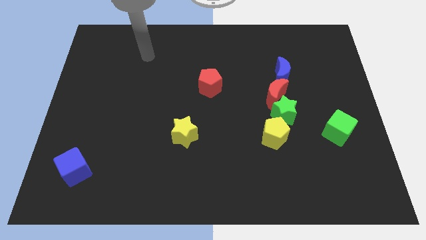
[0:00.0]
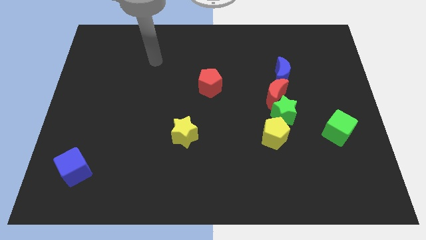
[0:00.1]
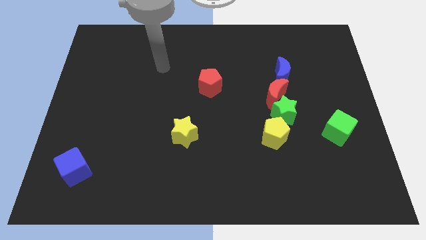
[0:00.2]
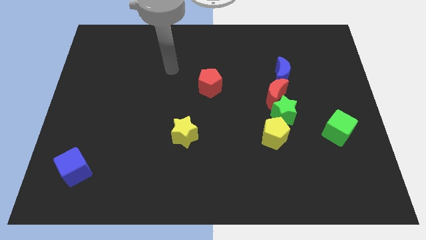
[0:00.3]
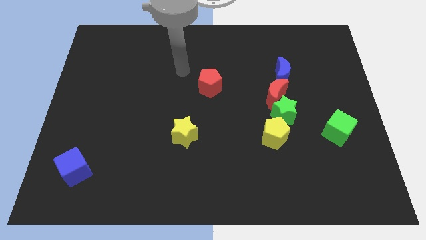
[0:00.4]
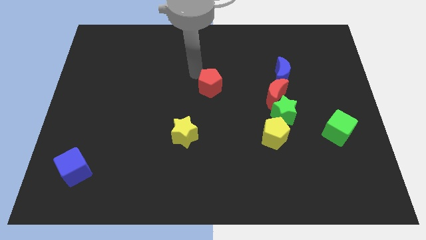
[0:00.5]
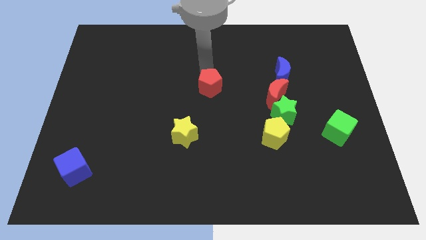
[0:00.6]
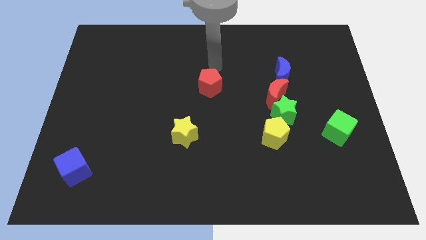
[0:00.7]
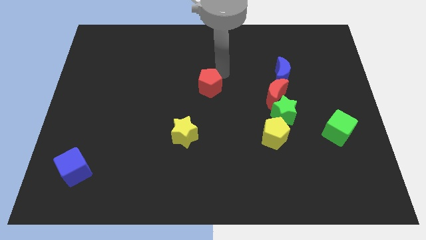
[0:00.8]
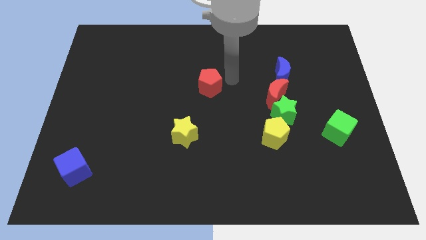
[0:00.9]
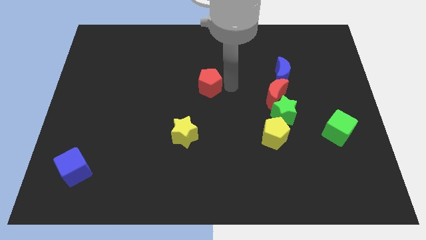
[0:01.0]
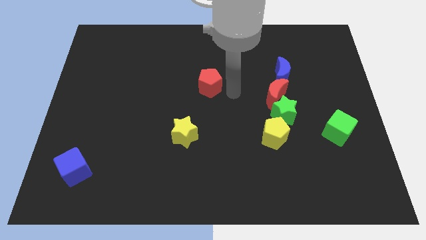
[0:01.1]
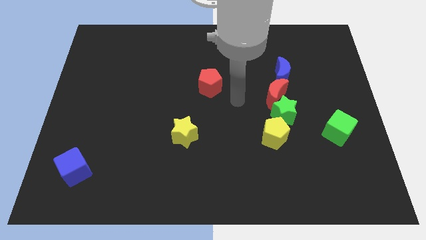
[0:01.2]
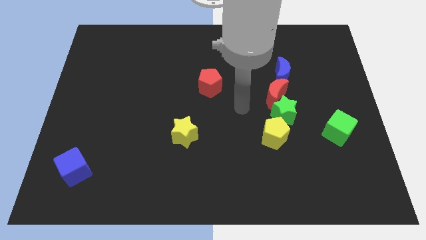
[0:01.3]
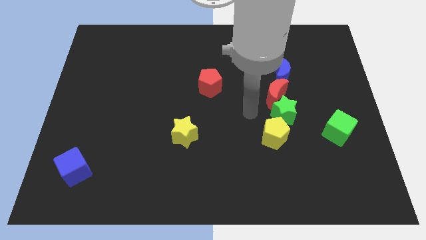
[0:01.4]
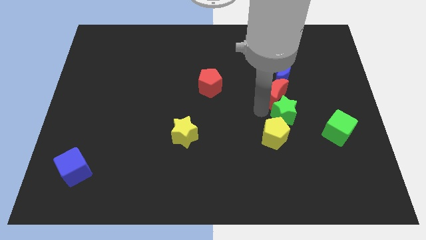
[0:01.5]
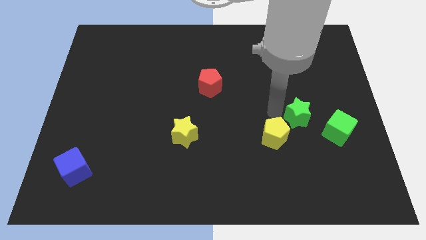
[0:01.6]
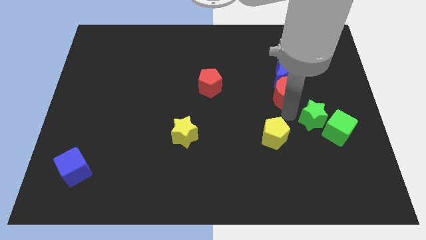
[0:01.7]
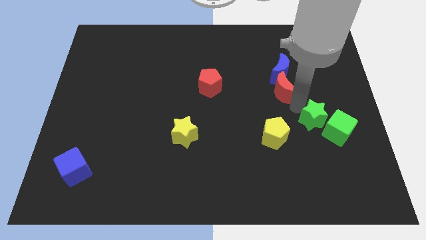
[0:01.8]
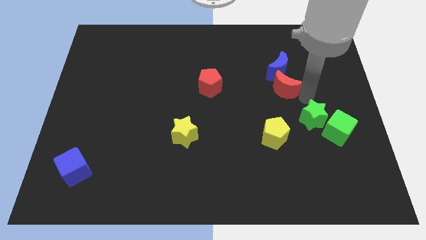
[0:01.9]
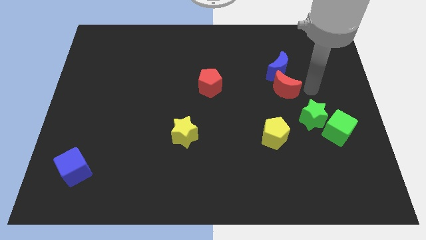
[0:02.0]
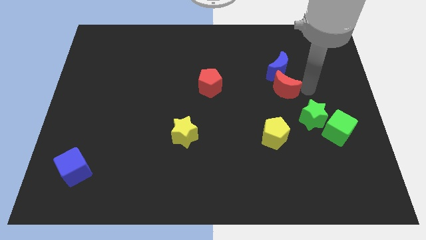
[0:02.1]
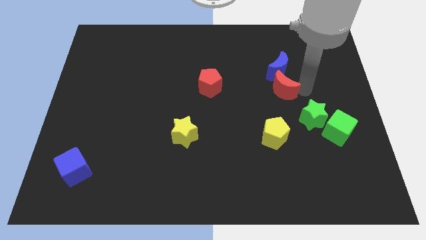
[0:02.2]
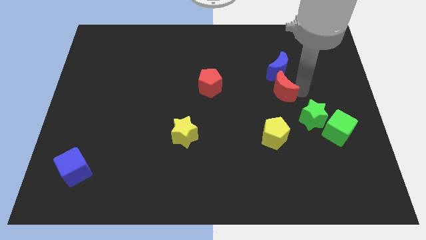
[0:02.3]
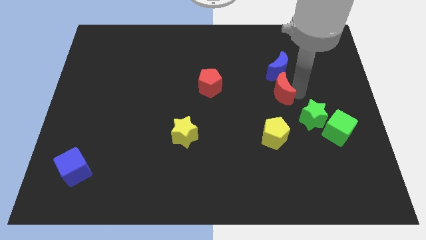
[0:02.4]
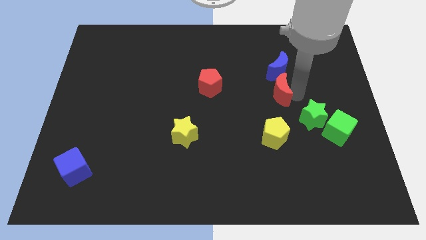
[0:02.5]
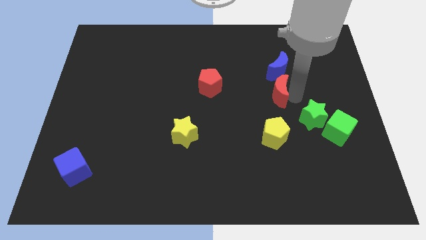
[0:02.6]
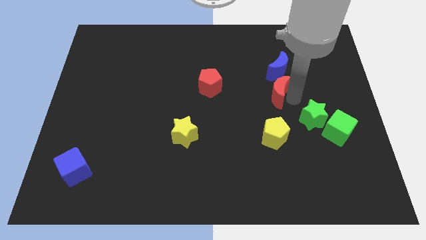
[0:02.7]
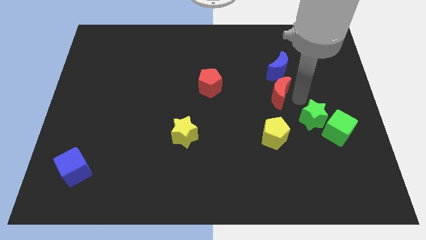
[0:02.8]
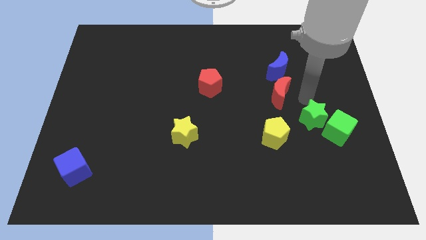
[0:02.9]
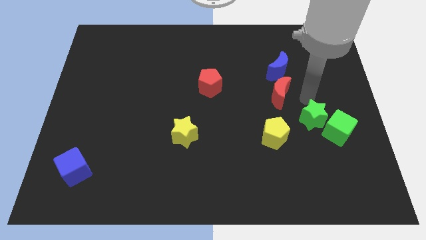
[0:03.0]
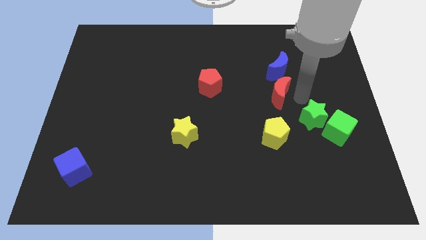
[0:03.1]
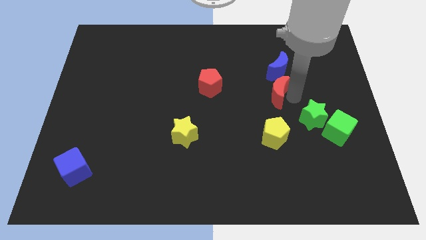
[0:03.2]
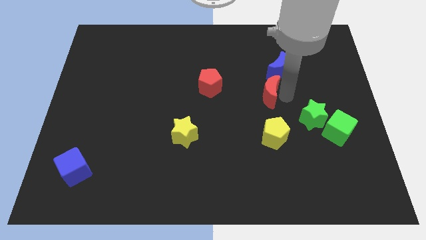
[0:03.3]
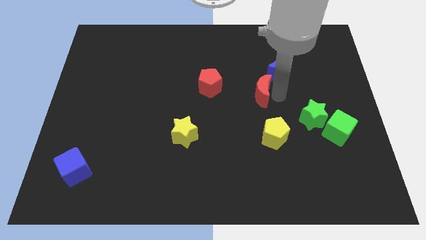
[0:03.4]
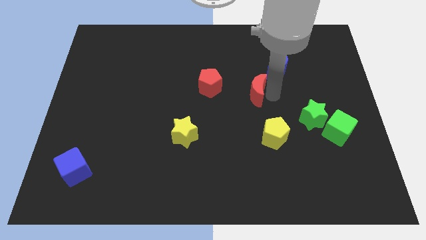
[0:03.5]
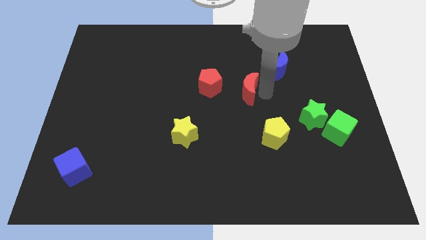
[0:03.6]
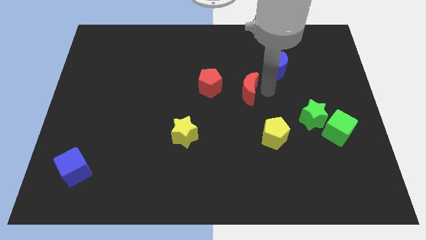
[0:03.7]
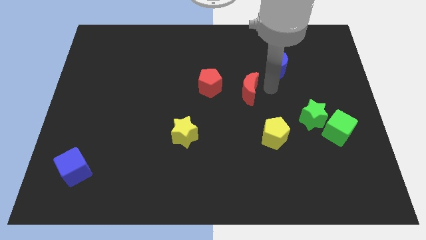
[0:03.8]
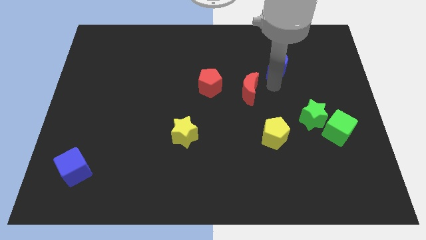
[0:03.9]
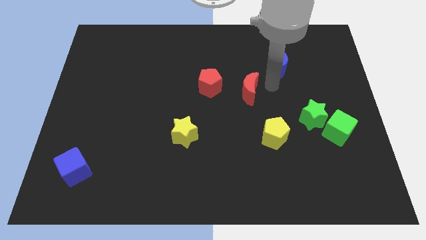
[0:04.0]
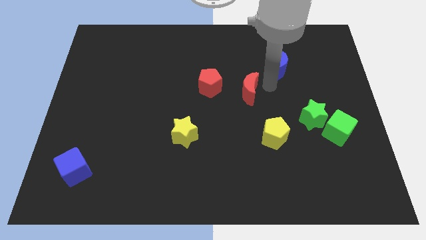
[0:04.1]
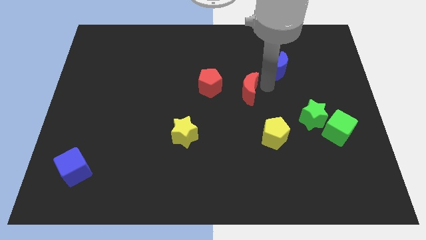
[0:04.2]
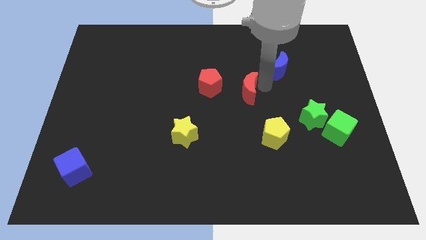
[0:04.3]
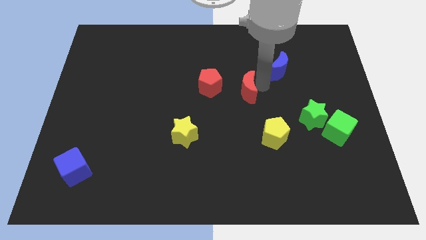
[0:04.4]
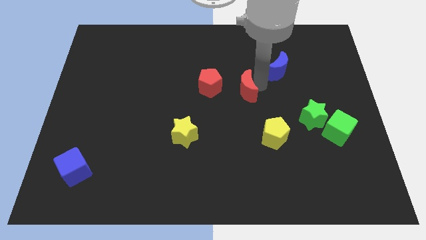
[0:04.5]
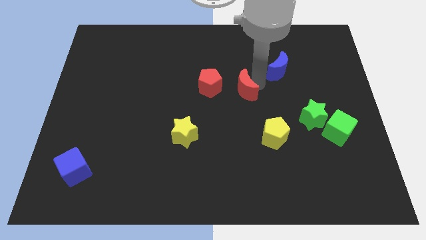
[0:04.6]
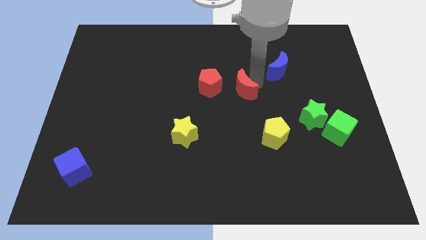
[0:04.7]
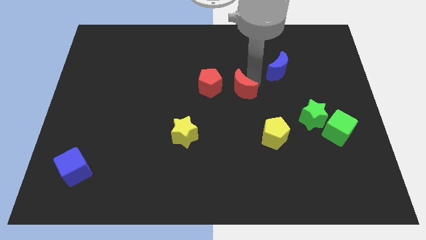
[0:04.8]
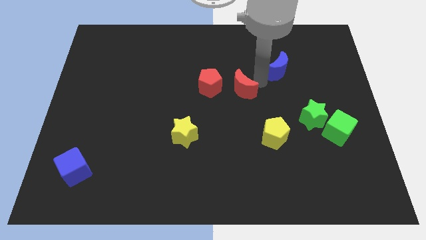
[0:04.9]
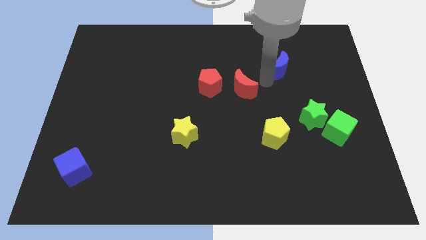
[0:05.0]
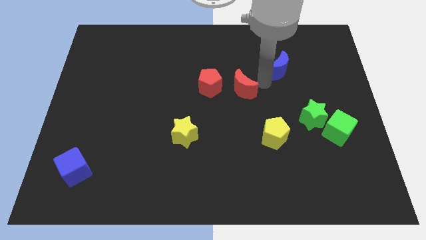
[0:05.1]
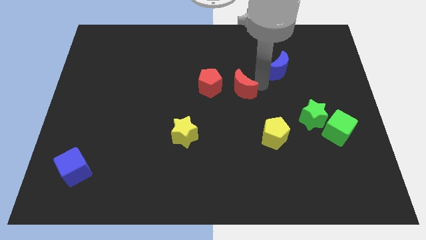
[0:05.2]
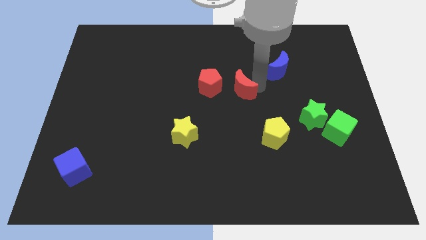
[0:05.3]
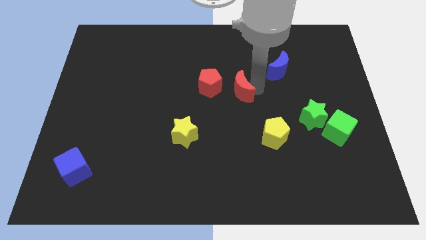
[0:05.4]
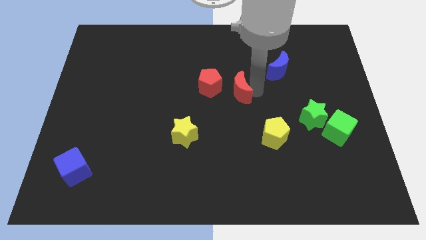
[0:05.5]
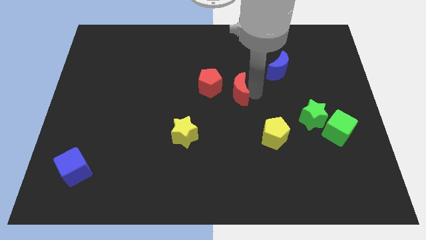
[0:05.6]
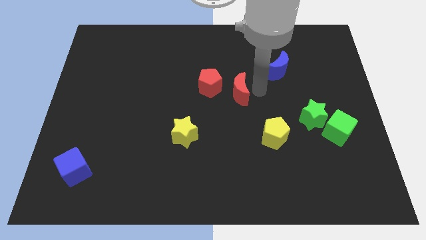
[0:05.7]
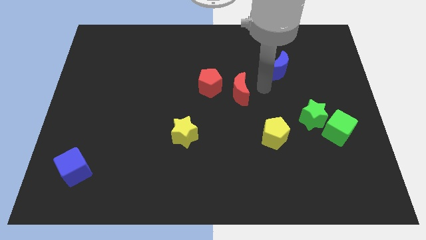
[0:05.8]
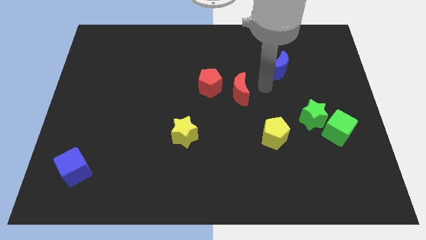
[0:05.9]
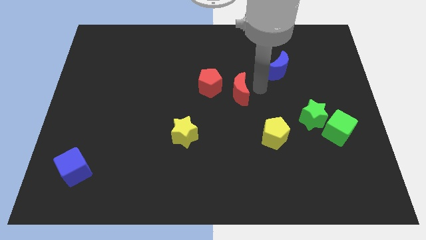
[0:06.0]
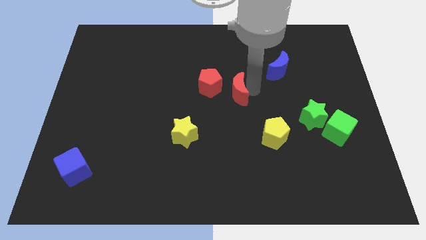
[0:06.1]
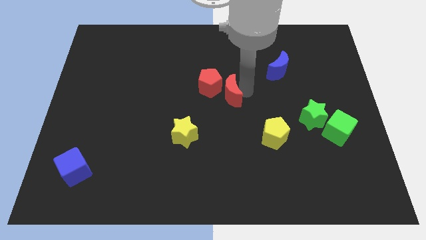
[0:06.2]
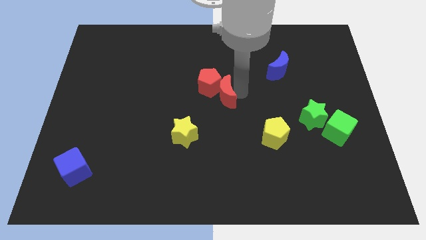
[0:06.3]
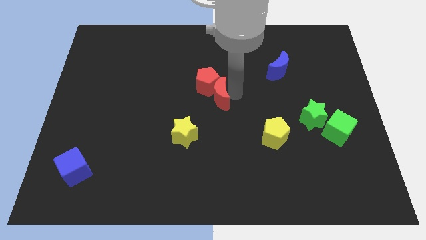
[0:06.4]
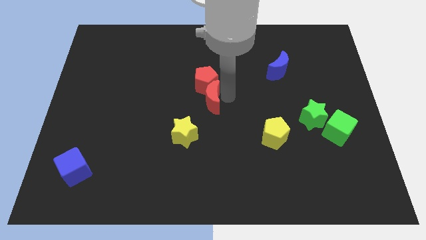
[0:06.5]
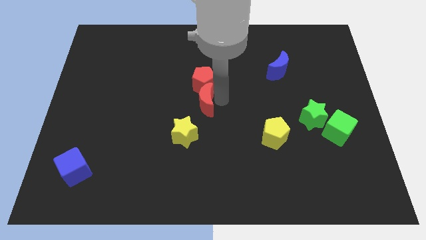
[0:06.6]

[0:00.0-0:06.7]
put the red moon to the top side of the yellow star

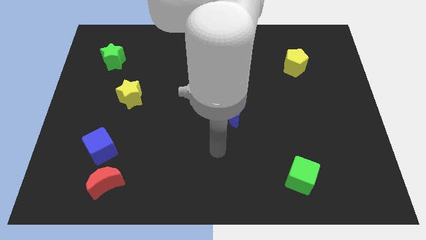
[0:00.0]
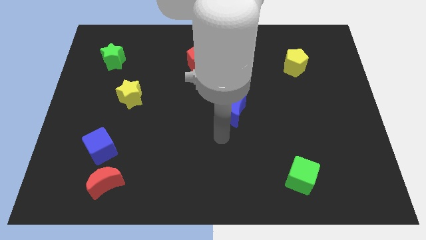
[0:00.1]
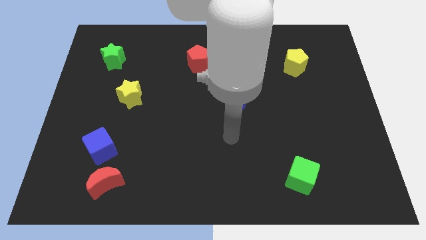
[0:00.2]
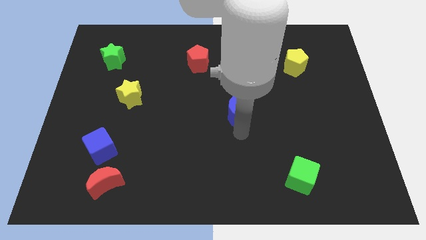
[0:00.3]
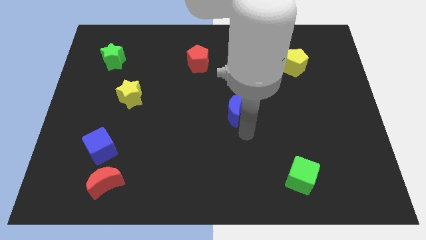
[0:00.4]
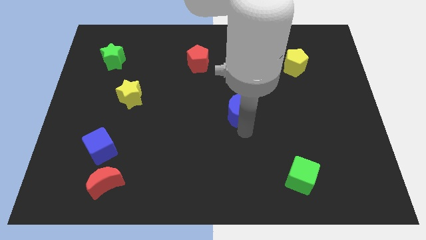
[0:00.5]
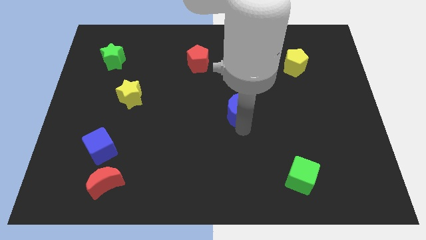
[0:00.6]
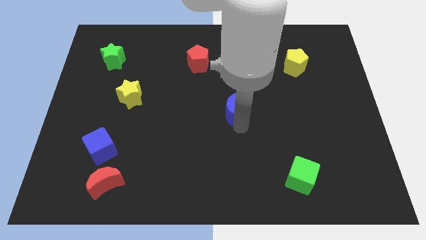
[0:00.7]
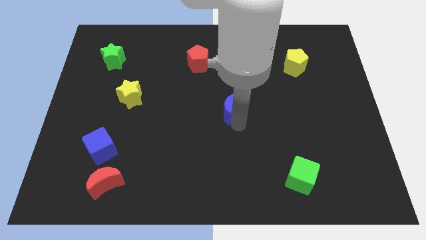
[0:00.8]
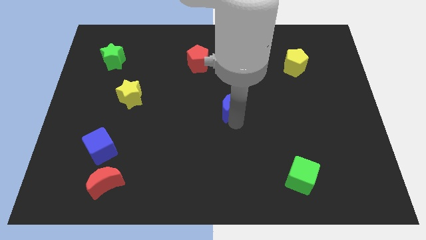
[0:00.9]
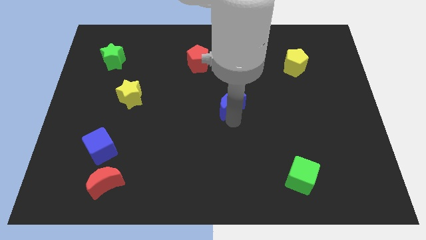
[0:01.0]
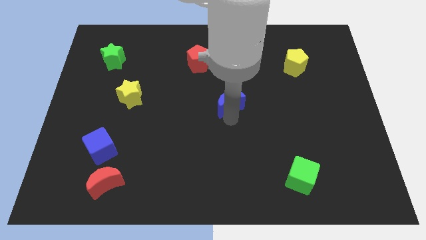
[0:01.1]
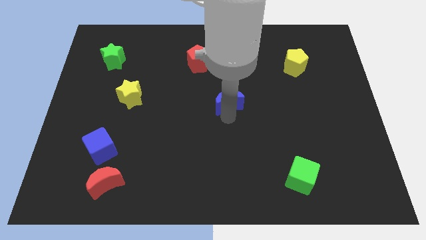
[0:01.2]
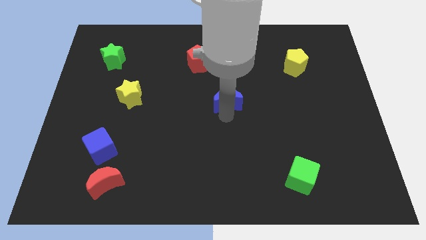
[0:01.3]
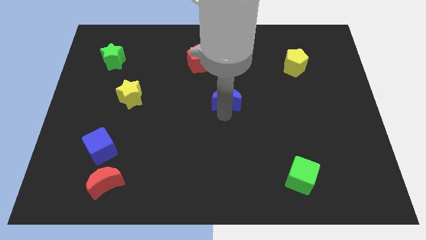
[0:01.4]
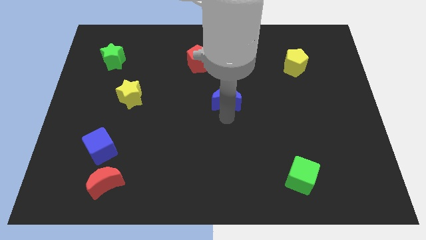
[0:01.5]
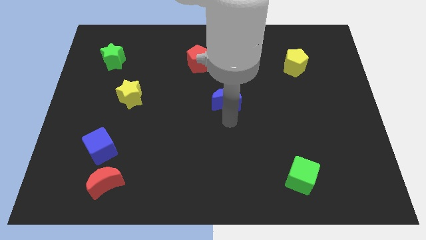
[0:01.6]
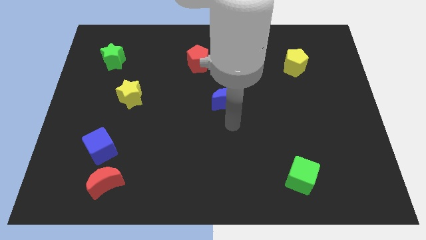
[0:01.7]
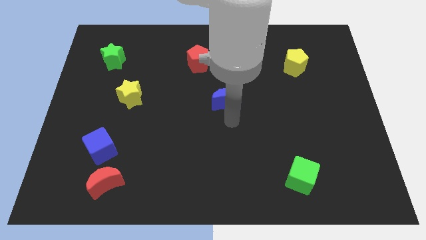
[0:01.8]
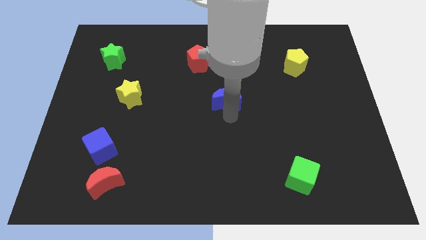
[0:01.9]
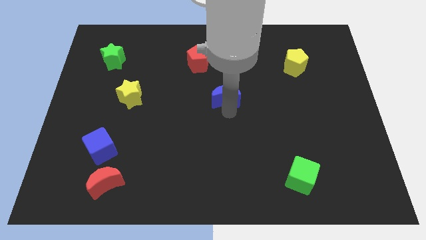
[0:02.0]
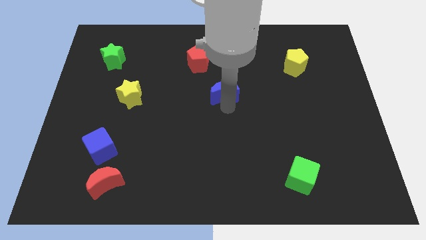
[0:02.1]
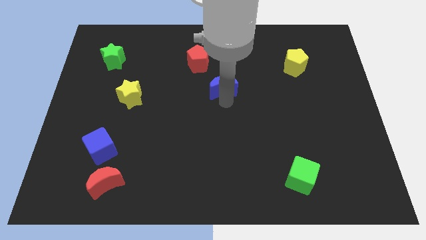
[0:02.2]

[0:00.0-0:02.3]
slide the blue moon to the bottom right side of the red pentagon
